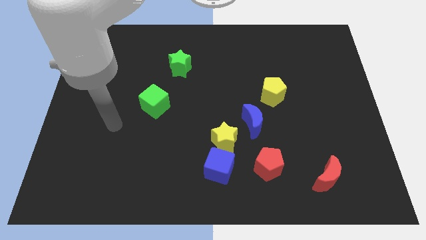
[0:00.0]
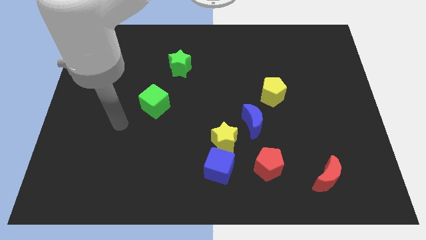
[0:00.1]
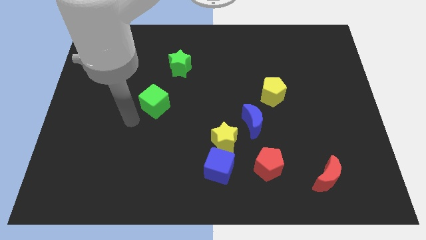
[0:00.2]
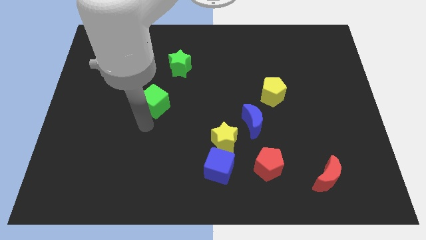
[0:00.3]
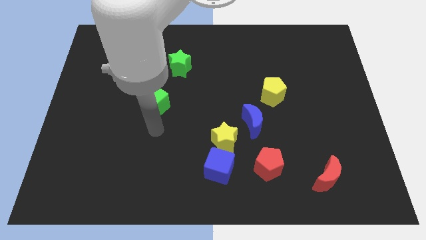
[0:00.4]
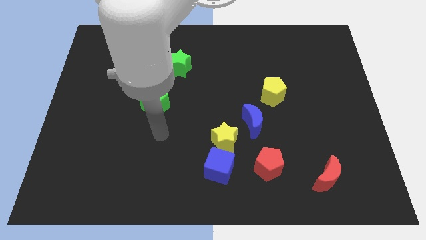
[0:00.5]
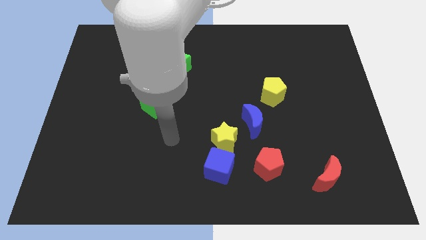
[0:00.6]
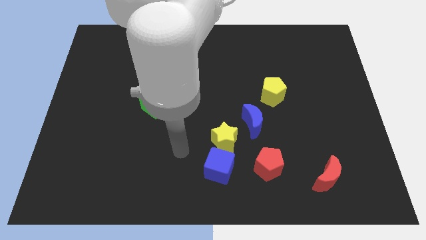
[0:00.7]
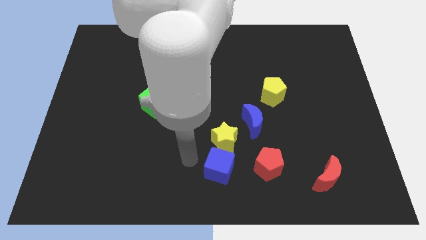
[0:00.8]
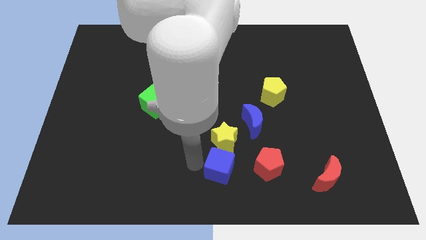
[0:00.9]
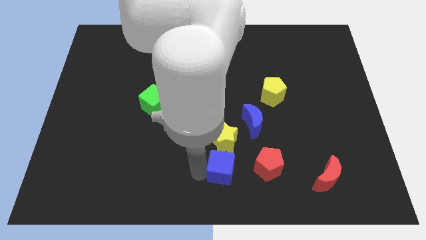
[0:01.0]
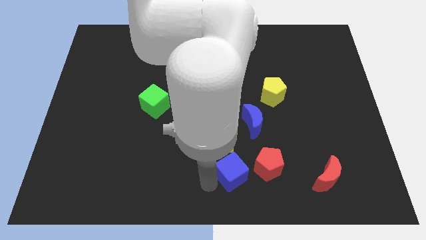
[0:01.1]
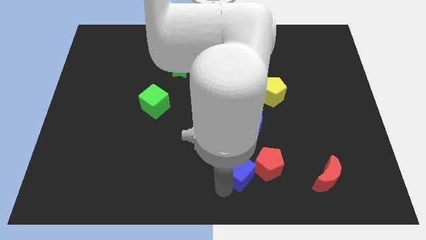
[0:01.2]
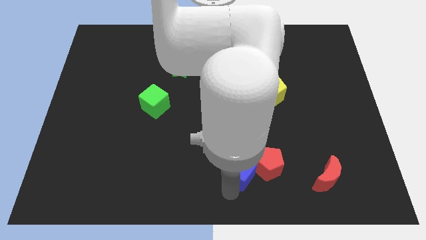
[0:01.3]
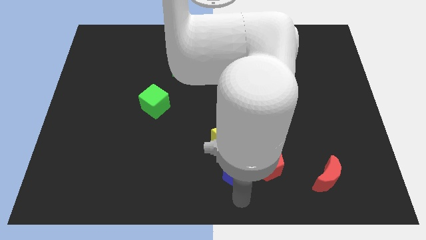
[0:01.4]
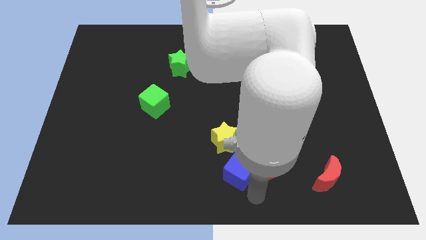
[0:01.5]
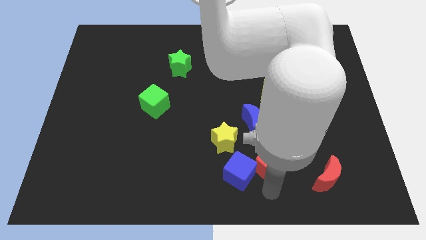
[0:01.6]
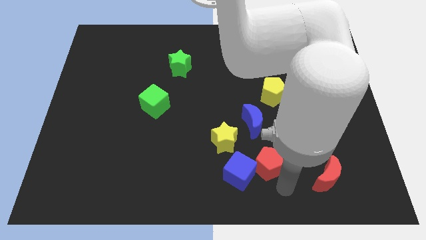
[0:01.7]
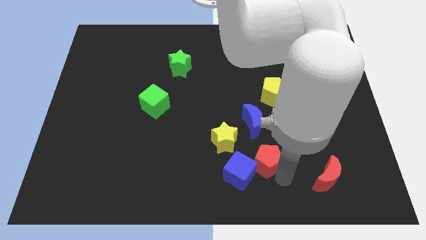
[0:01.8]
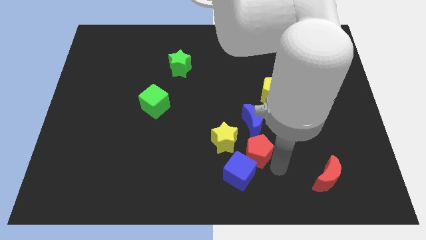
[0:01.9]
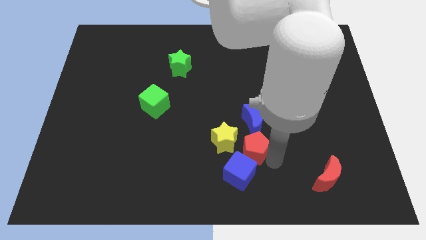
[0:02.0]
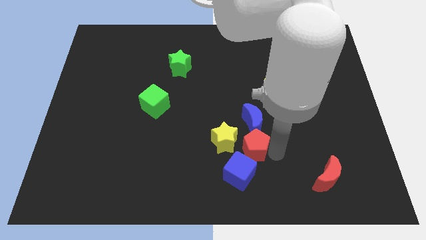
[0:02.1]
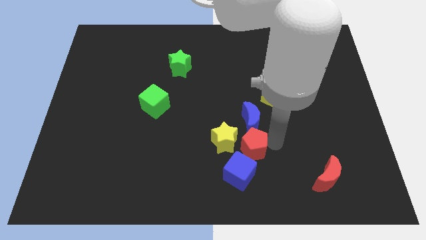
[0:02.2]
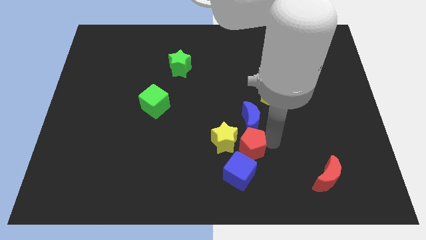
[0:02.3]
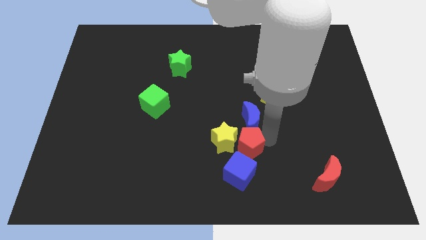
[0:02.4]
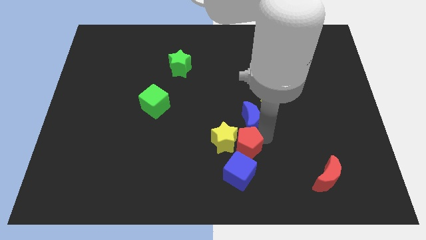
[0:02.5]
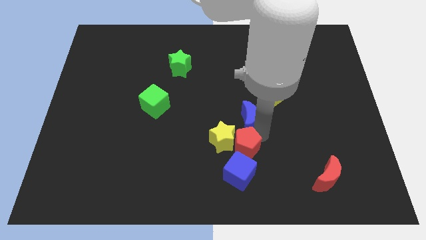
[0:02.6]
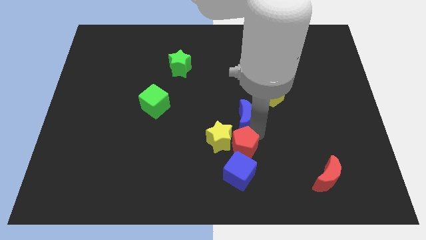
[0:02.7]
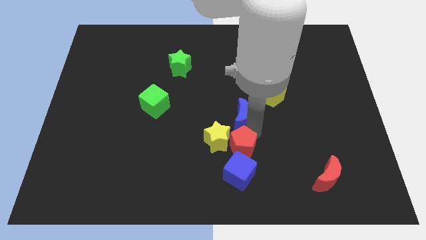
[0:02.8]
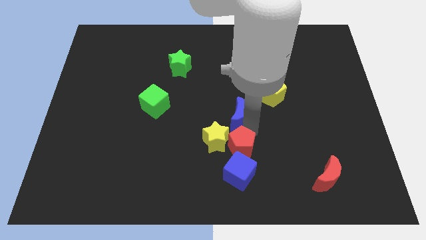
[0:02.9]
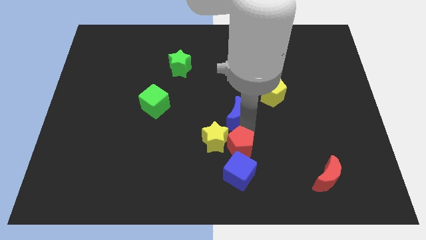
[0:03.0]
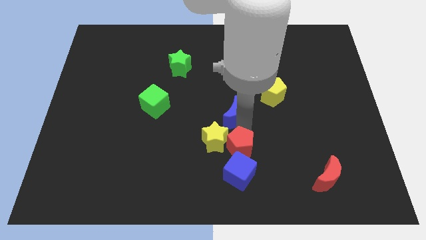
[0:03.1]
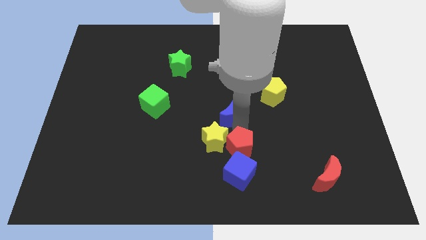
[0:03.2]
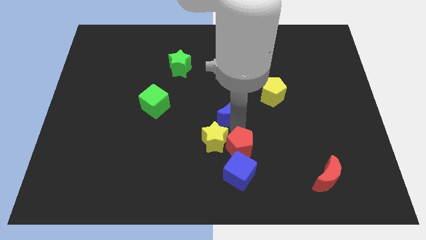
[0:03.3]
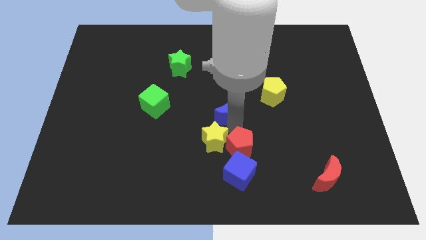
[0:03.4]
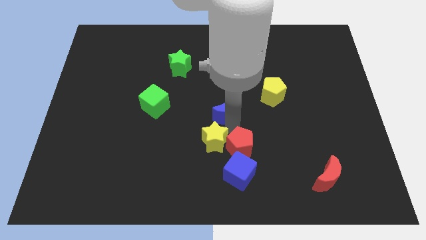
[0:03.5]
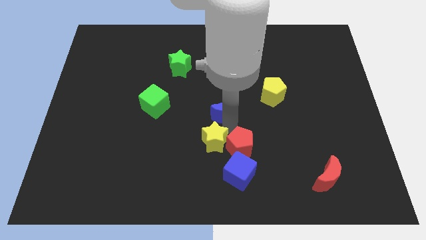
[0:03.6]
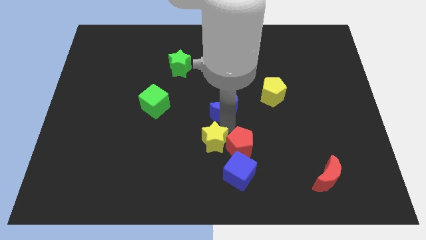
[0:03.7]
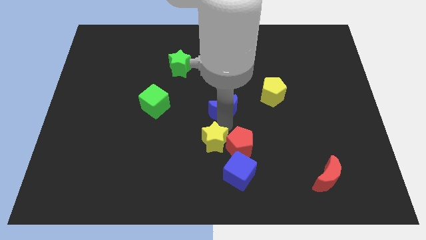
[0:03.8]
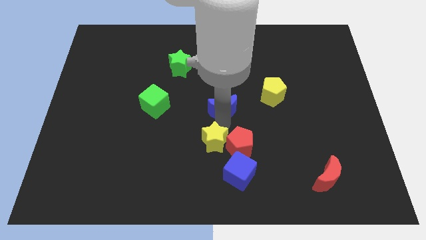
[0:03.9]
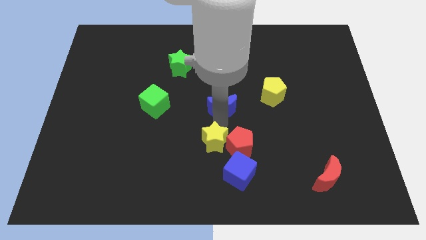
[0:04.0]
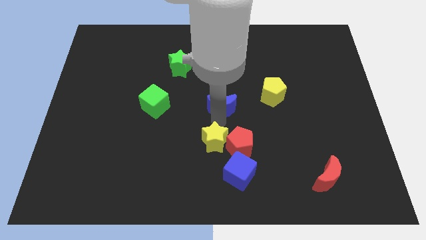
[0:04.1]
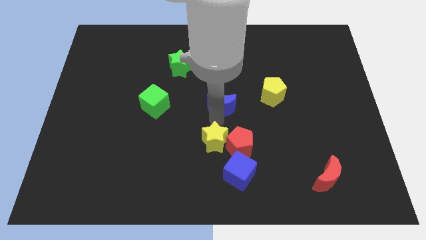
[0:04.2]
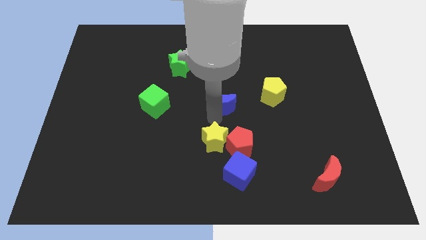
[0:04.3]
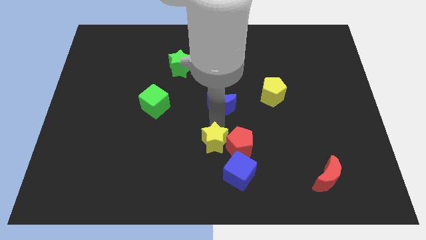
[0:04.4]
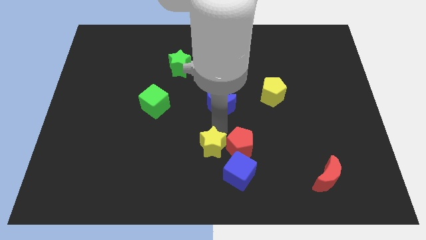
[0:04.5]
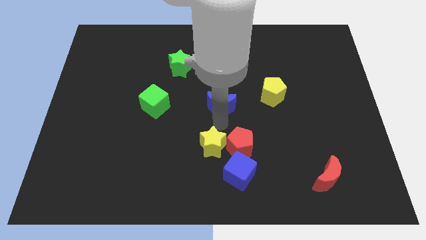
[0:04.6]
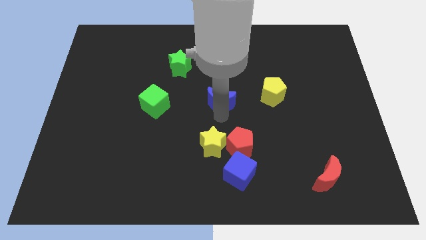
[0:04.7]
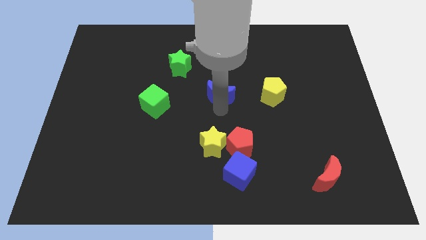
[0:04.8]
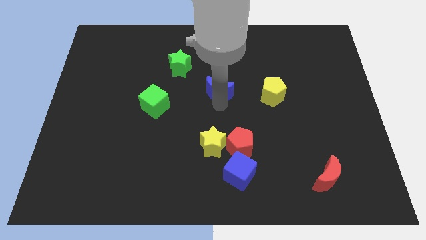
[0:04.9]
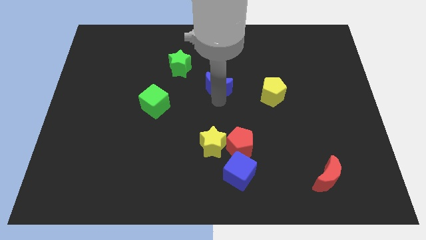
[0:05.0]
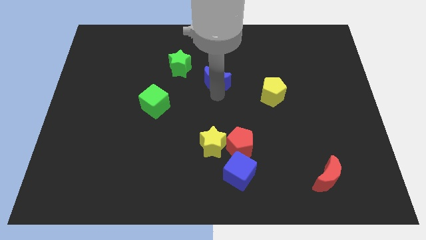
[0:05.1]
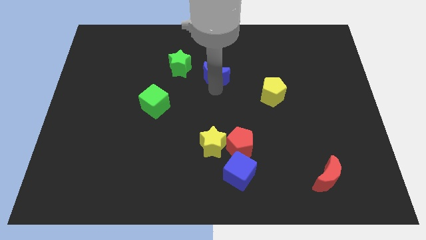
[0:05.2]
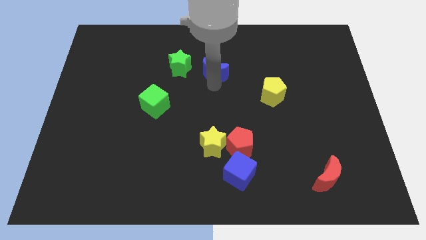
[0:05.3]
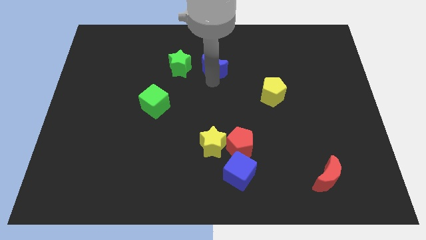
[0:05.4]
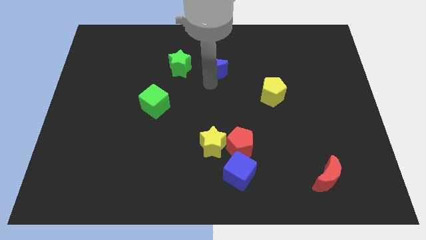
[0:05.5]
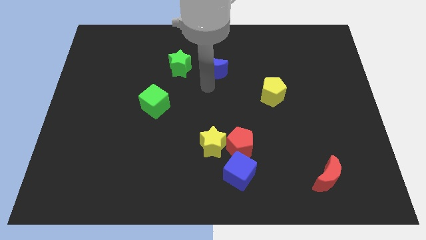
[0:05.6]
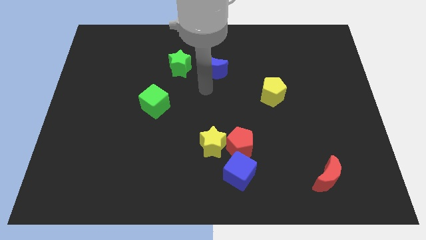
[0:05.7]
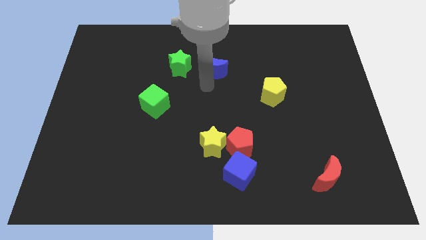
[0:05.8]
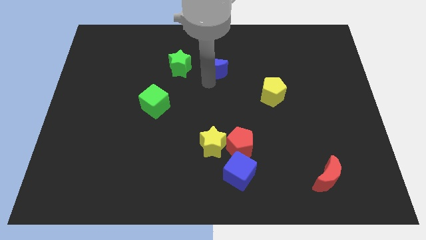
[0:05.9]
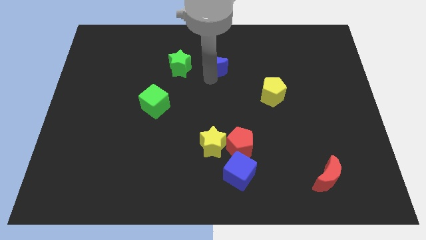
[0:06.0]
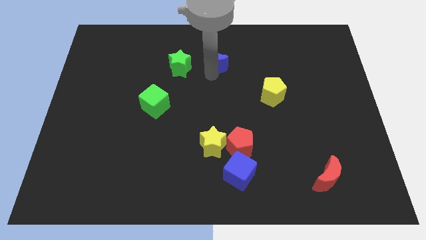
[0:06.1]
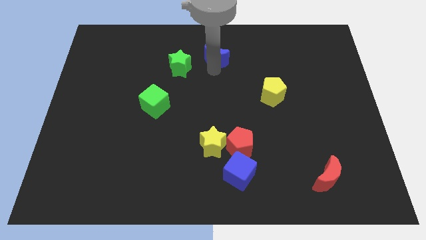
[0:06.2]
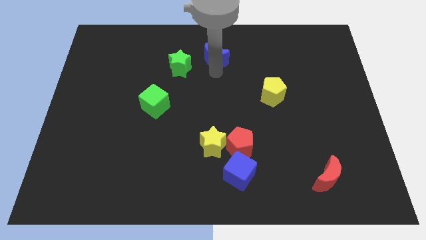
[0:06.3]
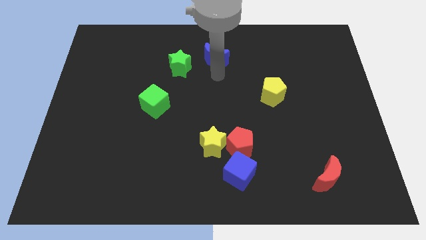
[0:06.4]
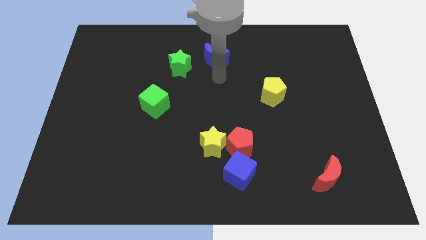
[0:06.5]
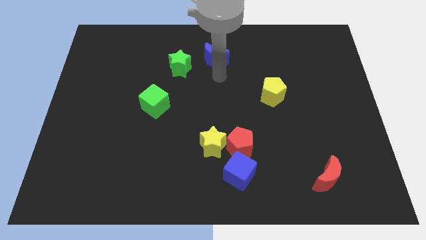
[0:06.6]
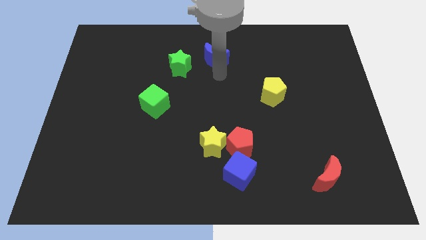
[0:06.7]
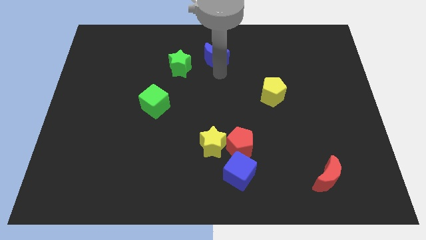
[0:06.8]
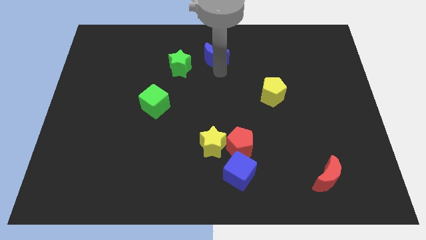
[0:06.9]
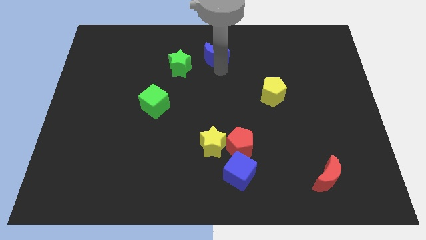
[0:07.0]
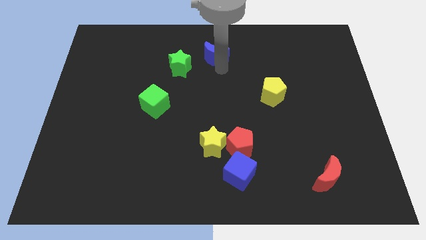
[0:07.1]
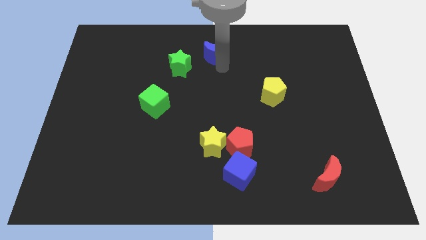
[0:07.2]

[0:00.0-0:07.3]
push the blue moon to the towards your base
